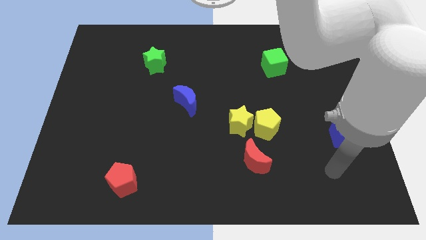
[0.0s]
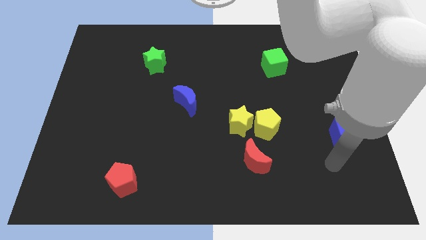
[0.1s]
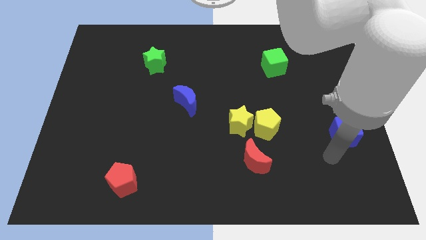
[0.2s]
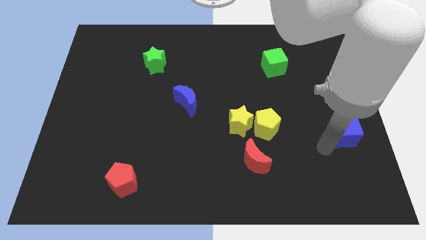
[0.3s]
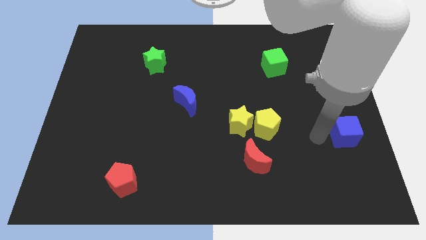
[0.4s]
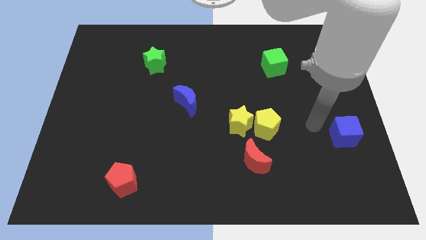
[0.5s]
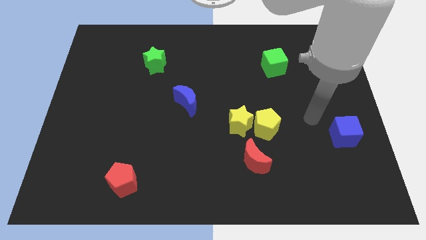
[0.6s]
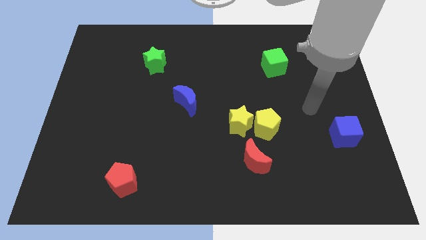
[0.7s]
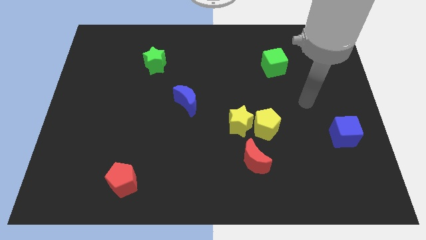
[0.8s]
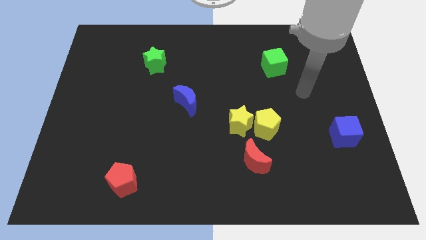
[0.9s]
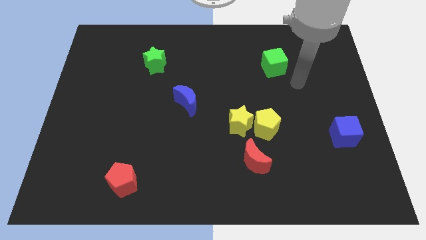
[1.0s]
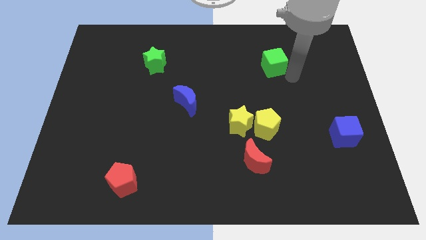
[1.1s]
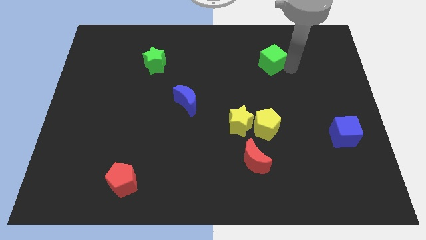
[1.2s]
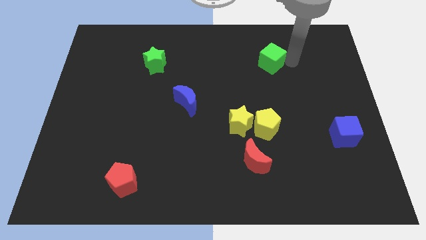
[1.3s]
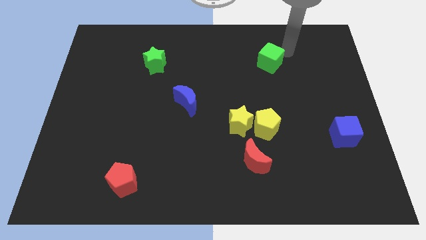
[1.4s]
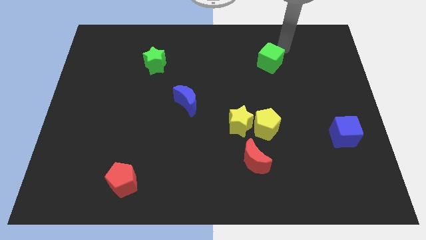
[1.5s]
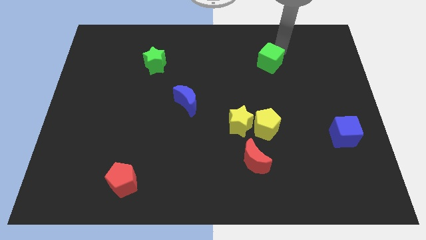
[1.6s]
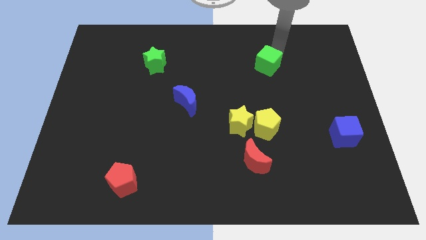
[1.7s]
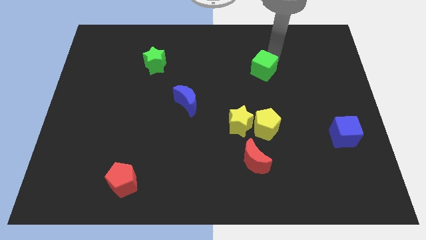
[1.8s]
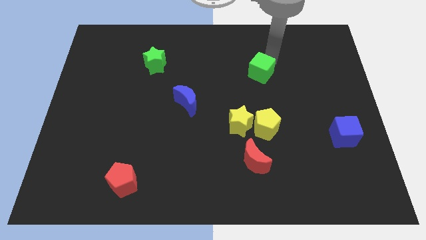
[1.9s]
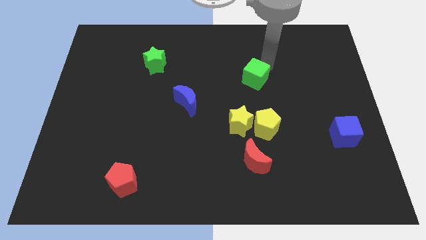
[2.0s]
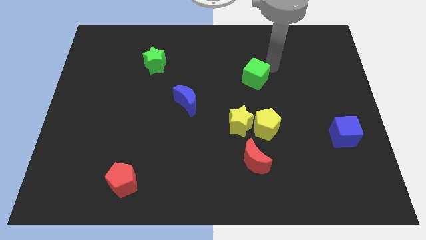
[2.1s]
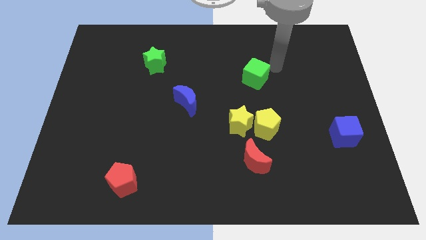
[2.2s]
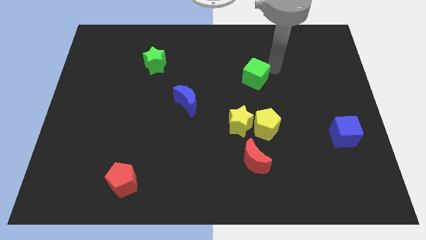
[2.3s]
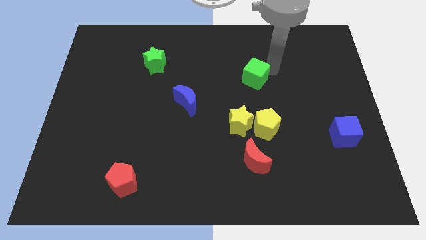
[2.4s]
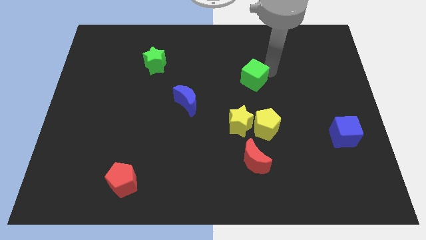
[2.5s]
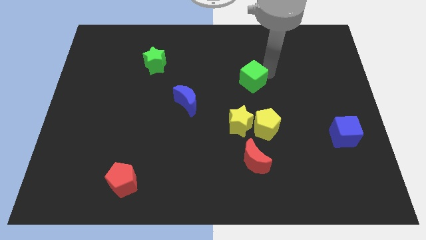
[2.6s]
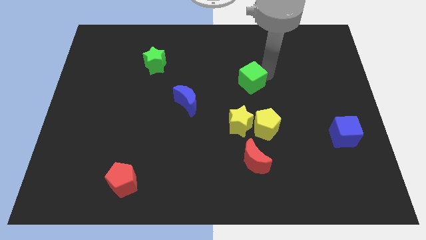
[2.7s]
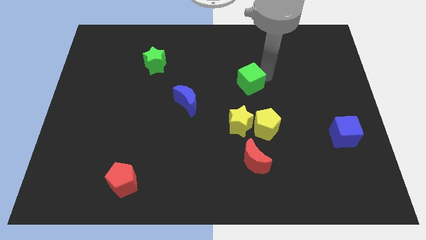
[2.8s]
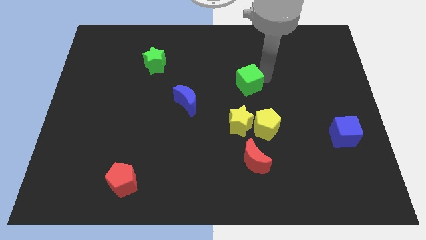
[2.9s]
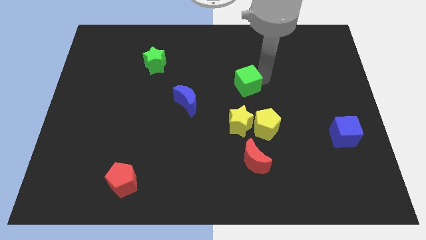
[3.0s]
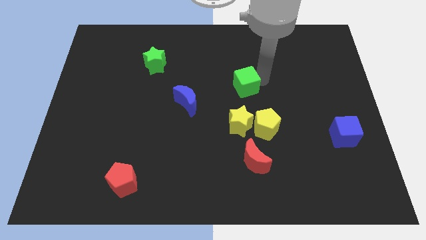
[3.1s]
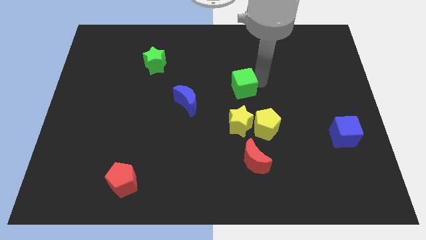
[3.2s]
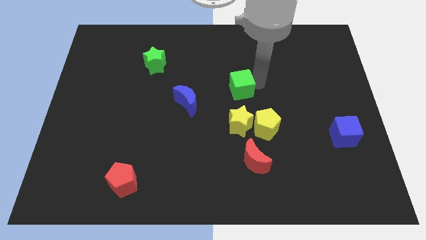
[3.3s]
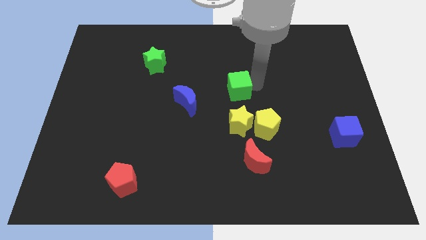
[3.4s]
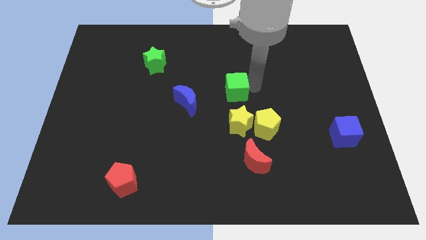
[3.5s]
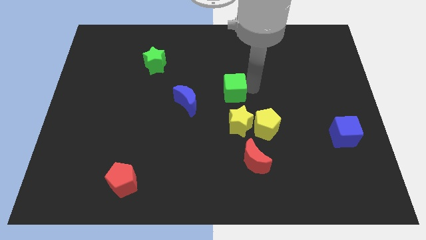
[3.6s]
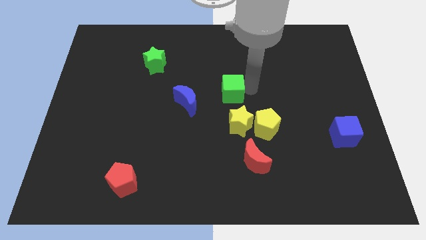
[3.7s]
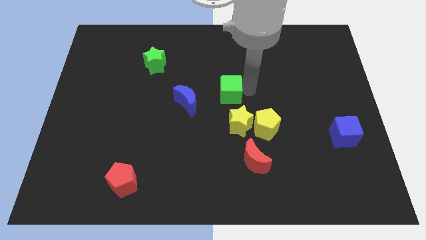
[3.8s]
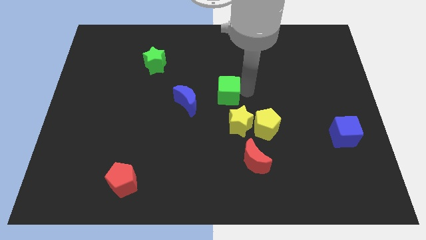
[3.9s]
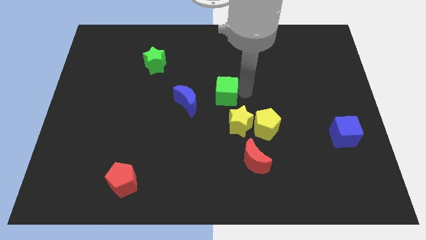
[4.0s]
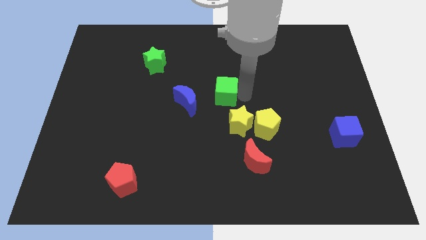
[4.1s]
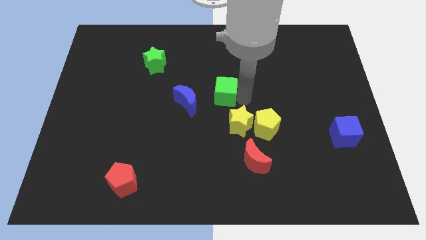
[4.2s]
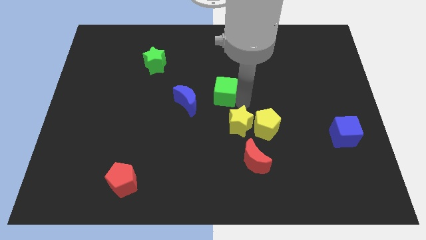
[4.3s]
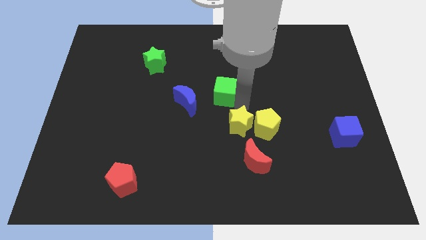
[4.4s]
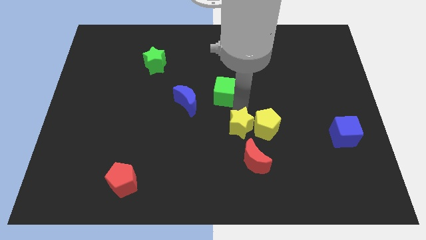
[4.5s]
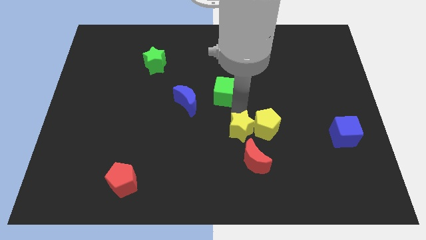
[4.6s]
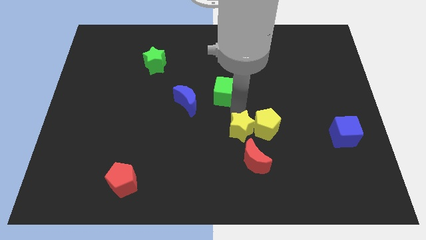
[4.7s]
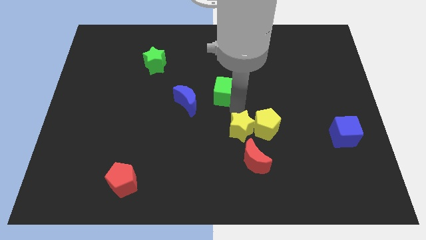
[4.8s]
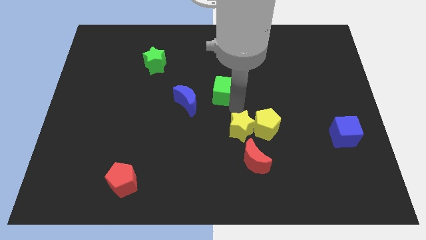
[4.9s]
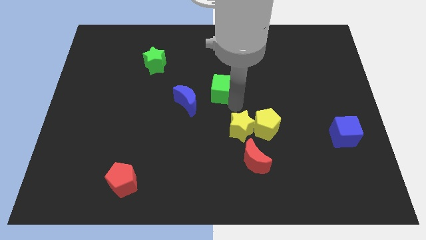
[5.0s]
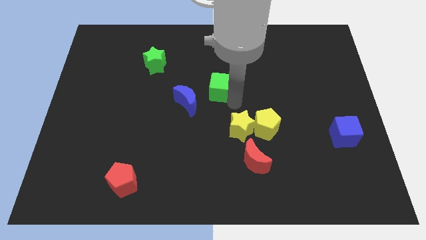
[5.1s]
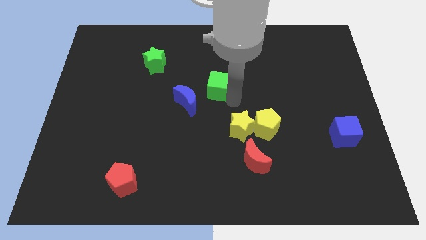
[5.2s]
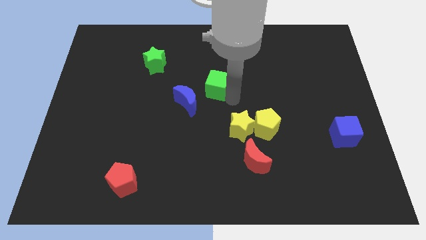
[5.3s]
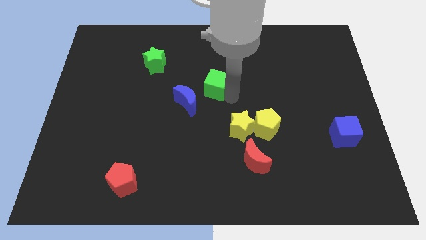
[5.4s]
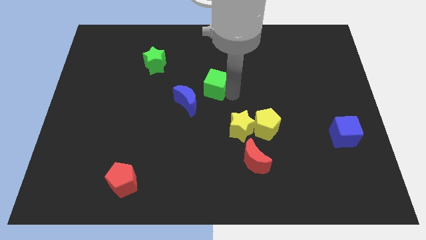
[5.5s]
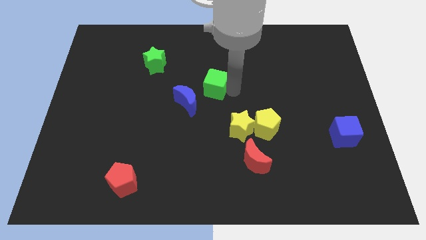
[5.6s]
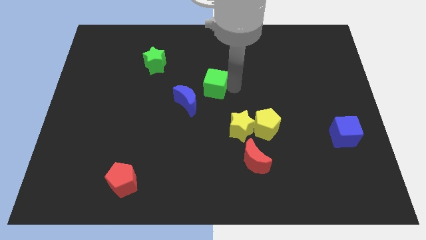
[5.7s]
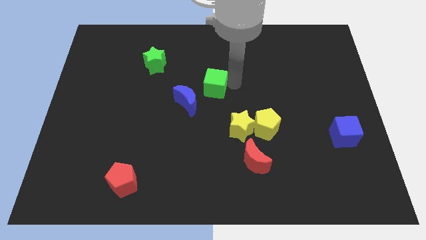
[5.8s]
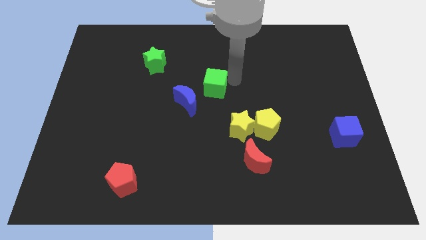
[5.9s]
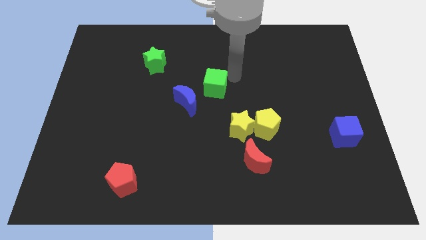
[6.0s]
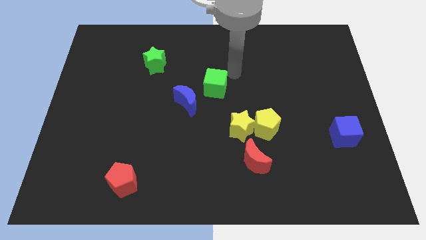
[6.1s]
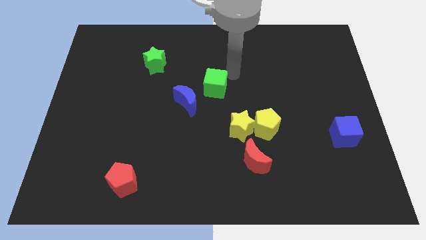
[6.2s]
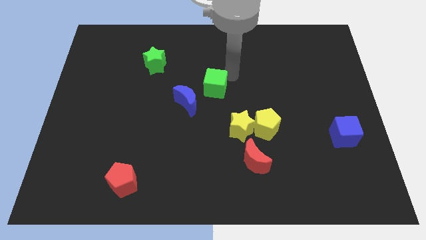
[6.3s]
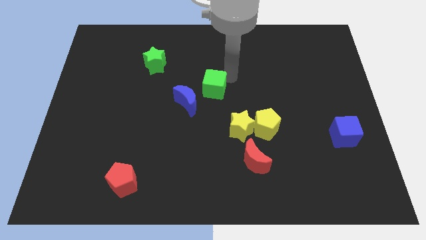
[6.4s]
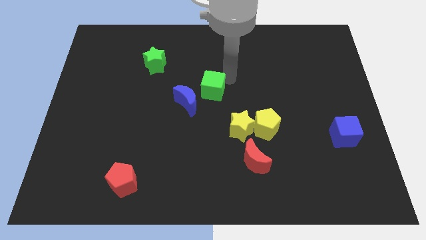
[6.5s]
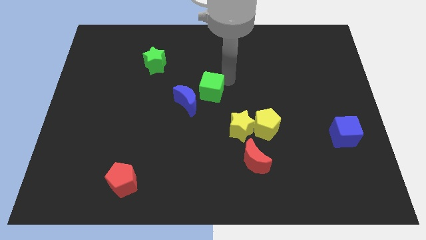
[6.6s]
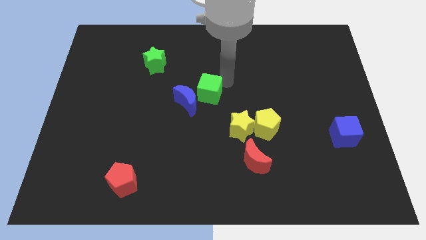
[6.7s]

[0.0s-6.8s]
move the green cube next to the blue moon

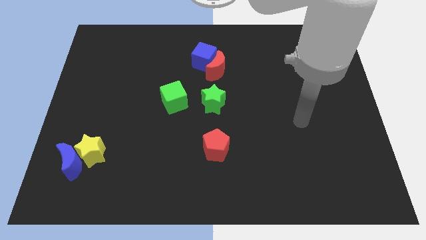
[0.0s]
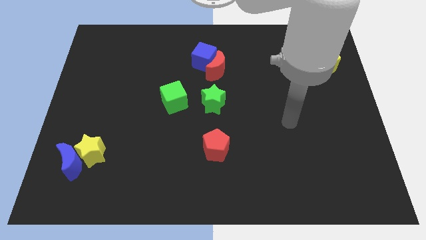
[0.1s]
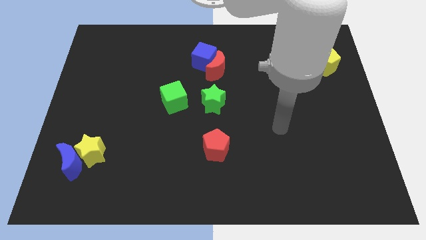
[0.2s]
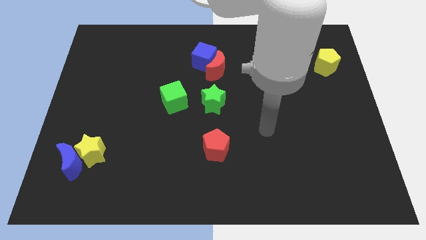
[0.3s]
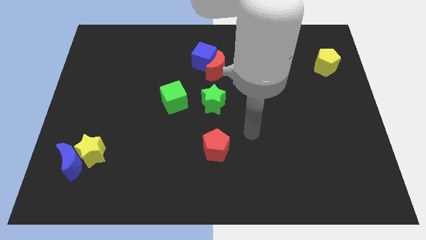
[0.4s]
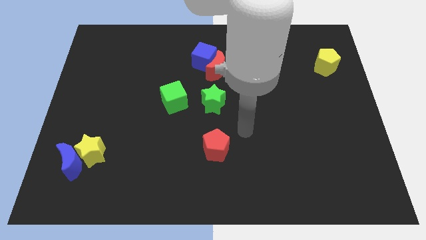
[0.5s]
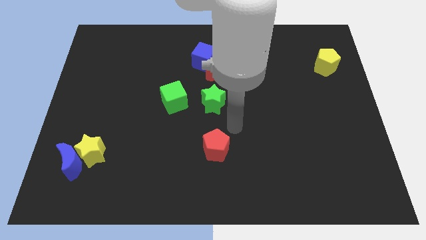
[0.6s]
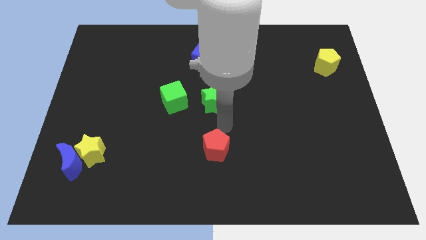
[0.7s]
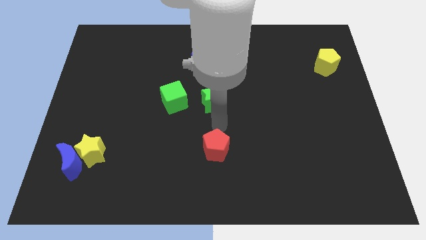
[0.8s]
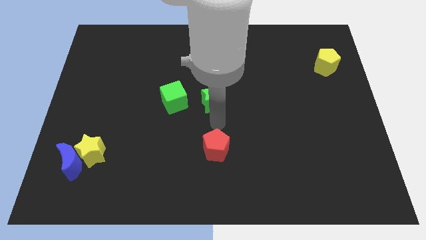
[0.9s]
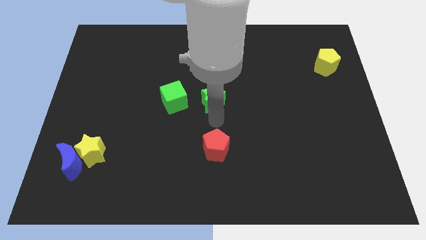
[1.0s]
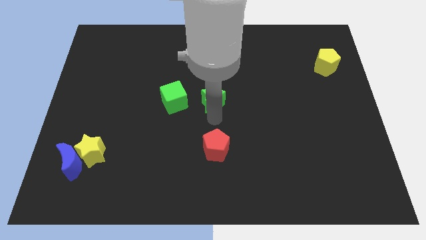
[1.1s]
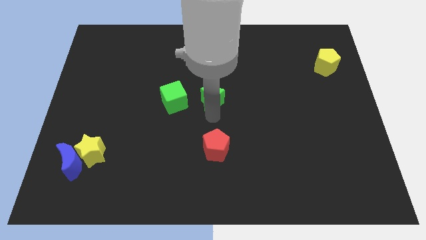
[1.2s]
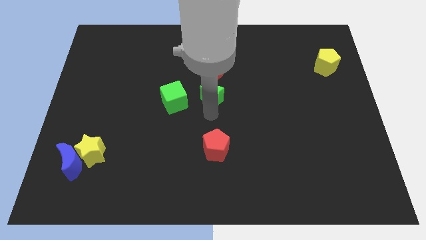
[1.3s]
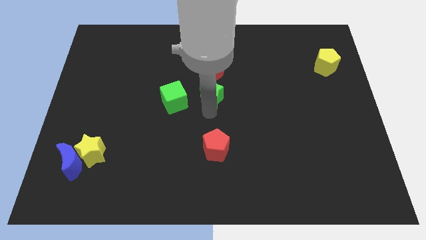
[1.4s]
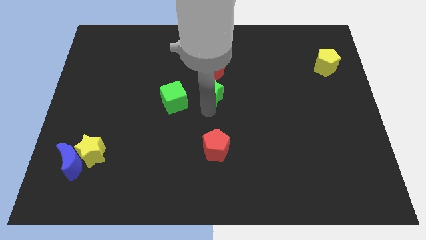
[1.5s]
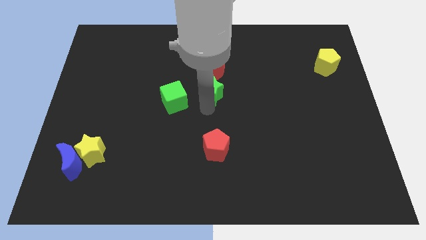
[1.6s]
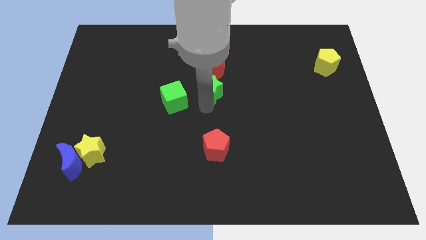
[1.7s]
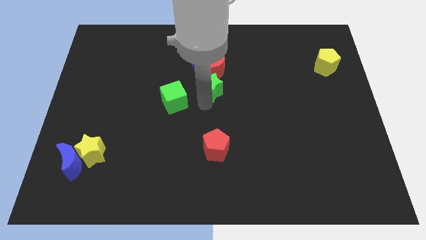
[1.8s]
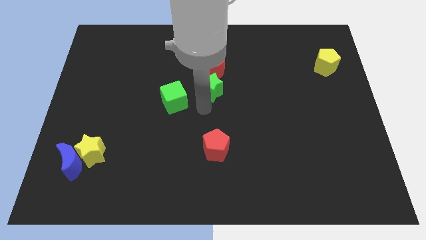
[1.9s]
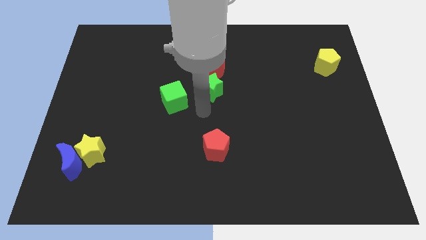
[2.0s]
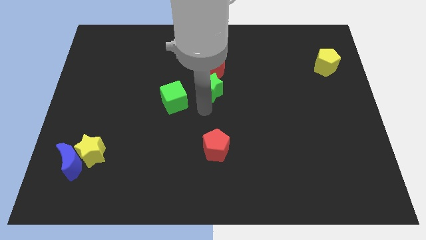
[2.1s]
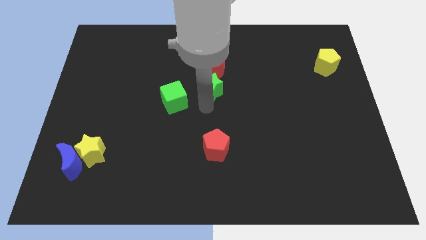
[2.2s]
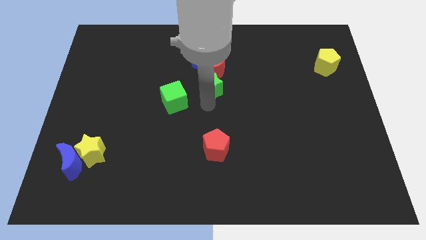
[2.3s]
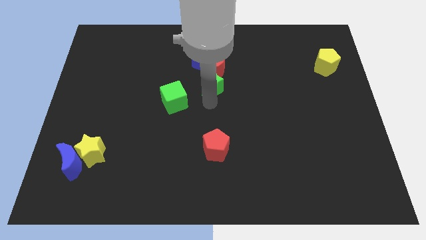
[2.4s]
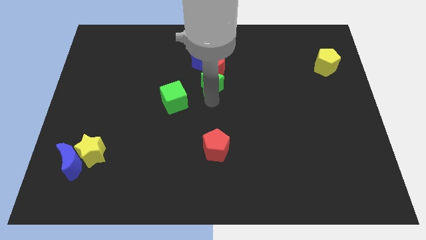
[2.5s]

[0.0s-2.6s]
slide the green star close to the red moon
